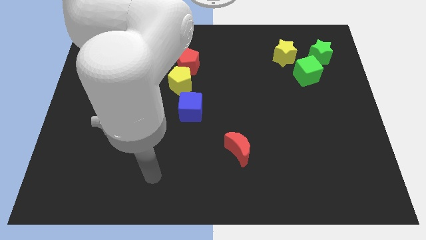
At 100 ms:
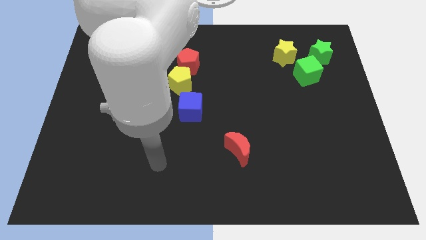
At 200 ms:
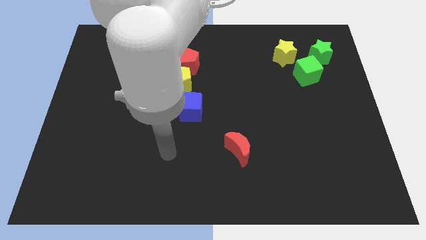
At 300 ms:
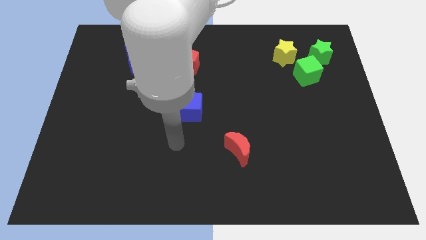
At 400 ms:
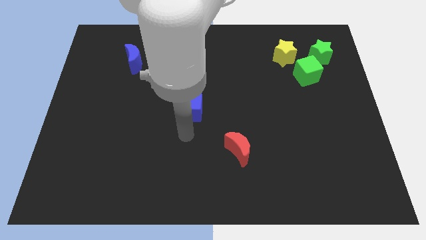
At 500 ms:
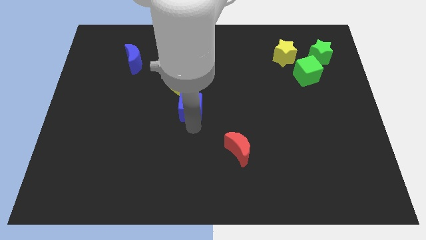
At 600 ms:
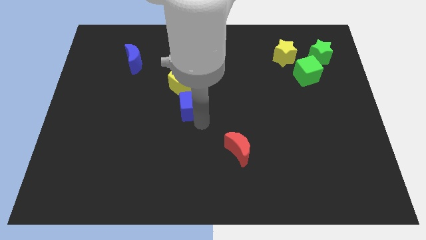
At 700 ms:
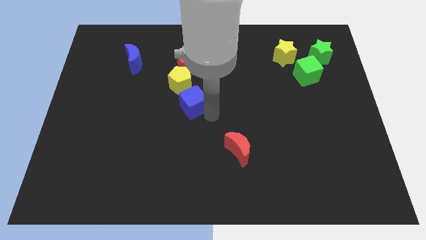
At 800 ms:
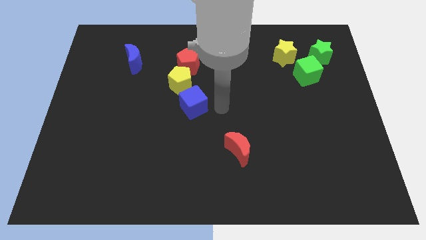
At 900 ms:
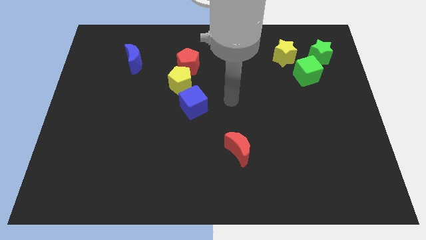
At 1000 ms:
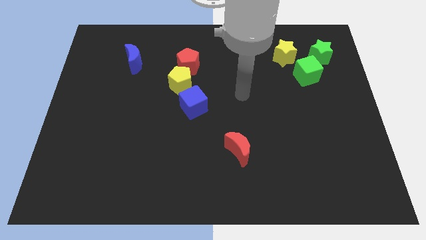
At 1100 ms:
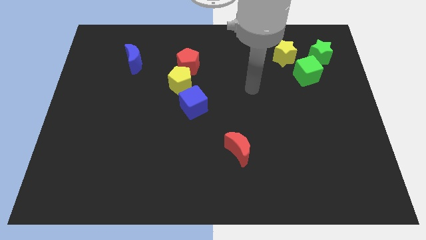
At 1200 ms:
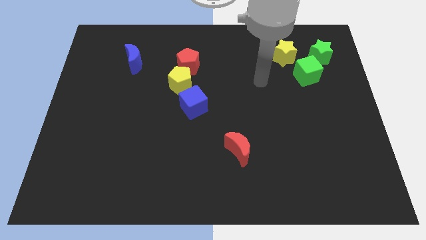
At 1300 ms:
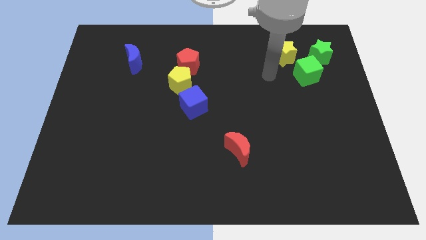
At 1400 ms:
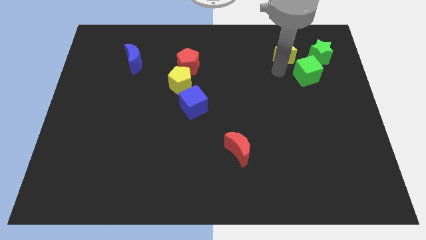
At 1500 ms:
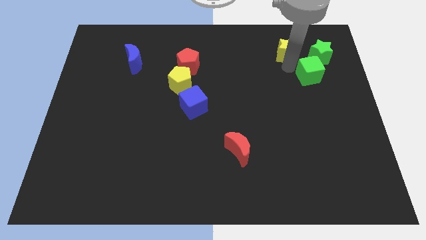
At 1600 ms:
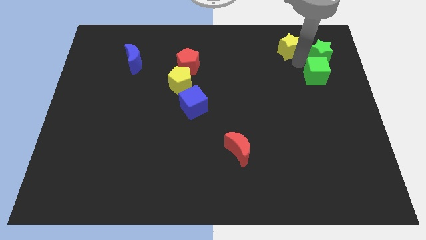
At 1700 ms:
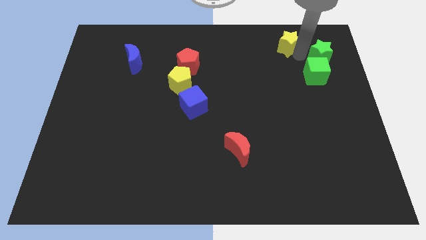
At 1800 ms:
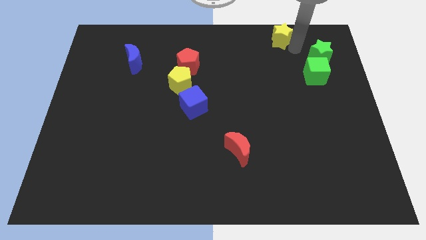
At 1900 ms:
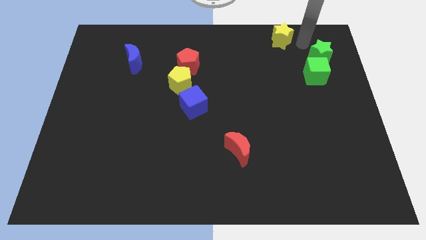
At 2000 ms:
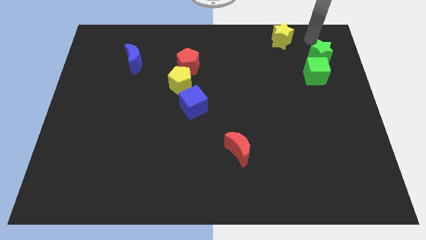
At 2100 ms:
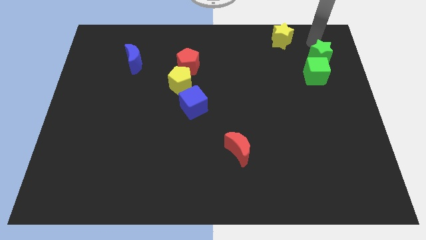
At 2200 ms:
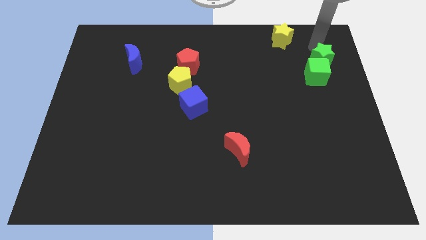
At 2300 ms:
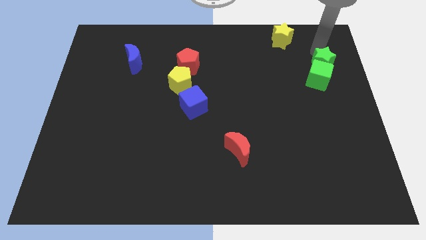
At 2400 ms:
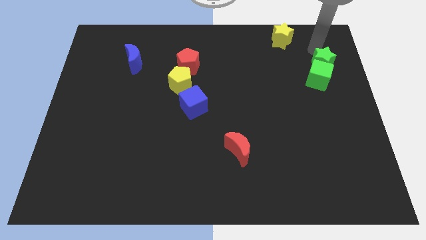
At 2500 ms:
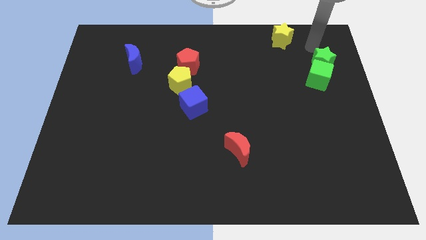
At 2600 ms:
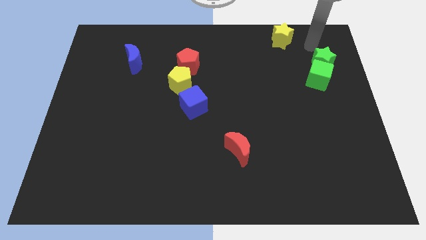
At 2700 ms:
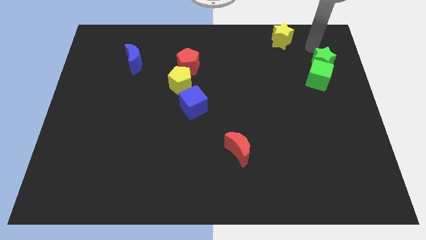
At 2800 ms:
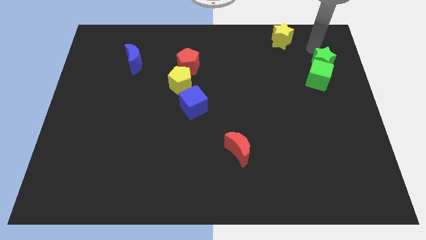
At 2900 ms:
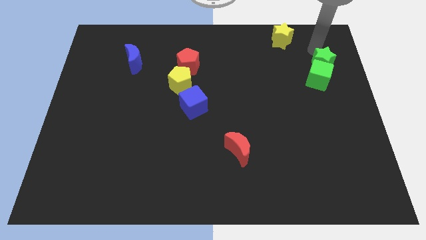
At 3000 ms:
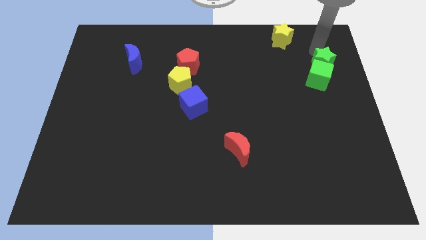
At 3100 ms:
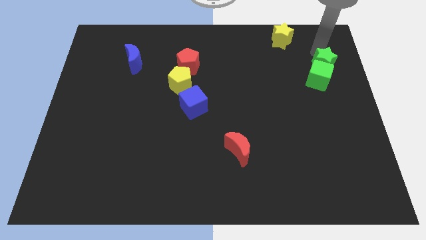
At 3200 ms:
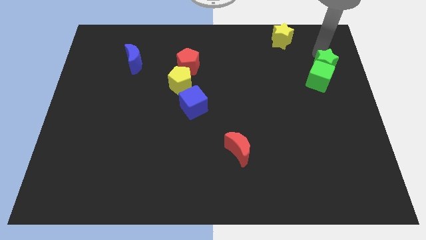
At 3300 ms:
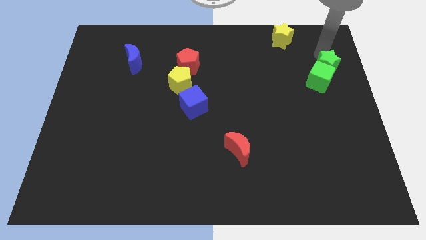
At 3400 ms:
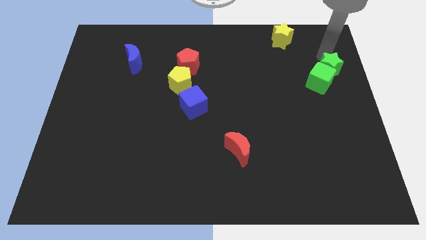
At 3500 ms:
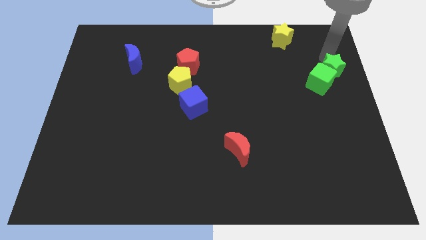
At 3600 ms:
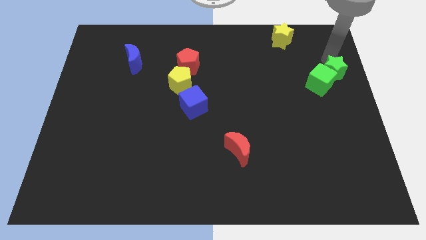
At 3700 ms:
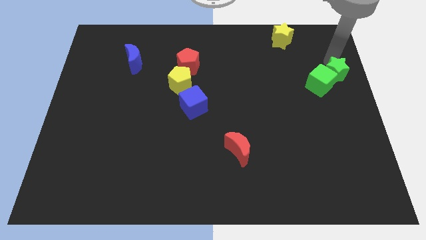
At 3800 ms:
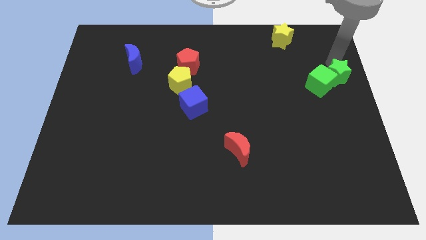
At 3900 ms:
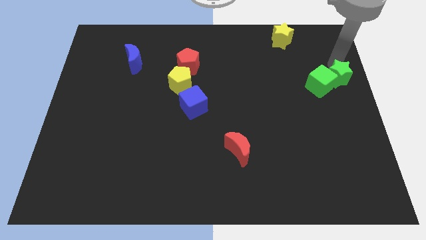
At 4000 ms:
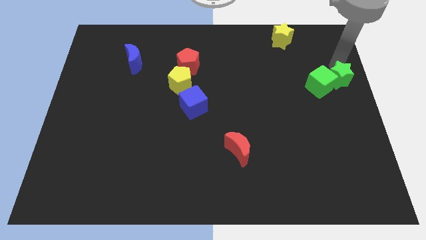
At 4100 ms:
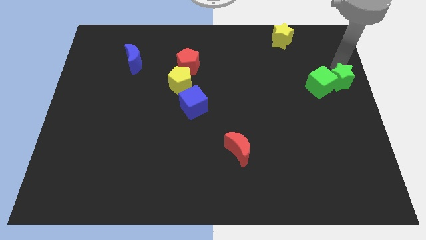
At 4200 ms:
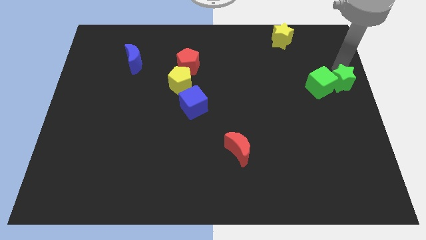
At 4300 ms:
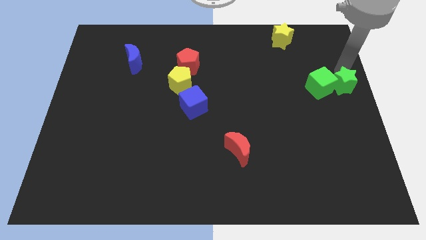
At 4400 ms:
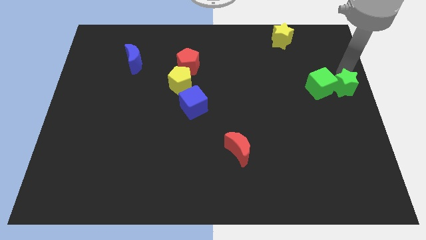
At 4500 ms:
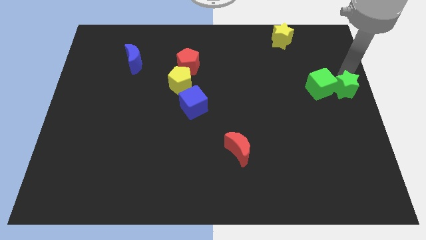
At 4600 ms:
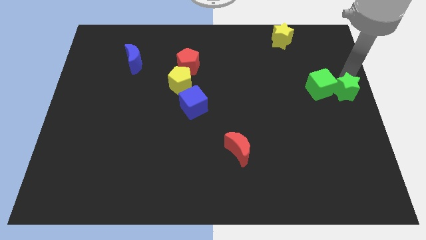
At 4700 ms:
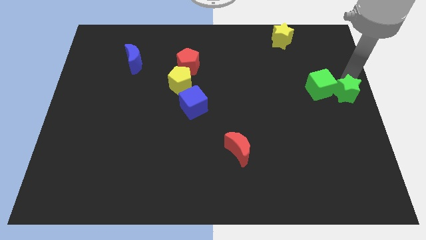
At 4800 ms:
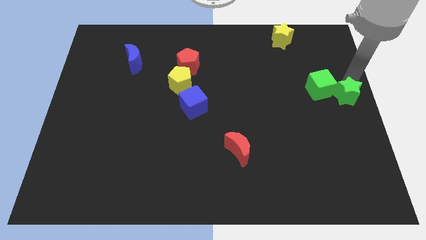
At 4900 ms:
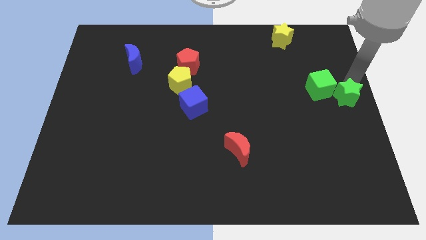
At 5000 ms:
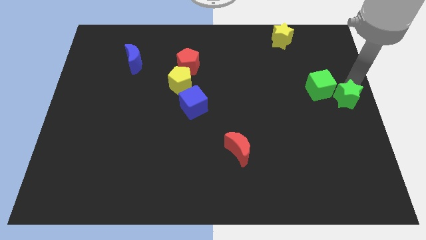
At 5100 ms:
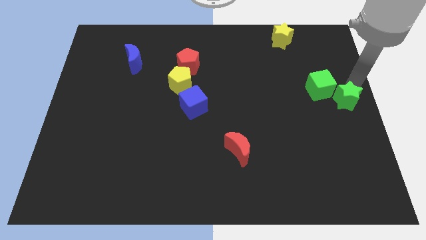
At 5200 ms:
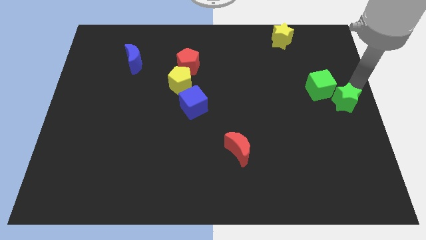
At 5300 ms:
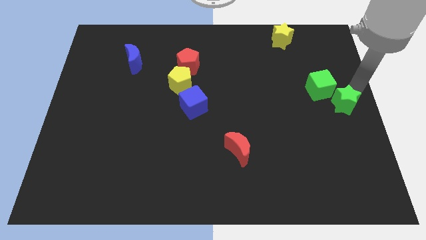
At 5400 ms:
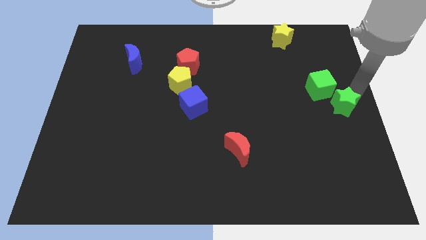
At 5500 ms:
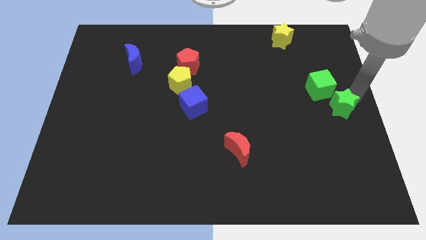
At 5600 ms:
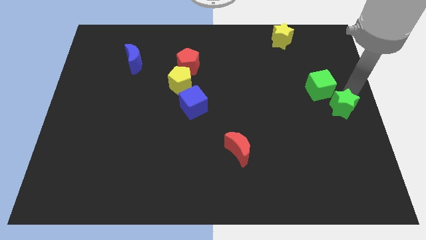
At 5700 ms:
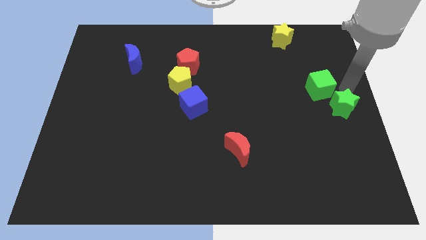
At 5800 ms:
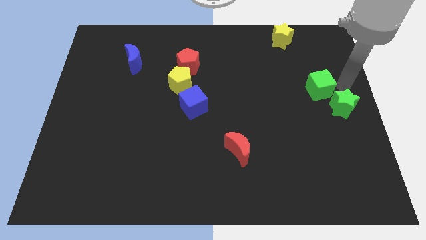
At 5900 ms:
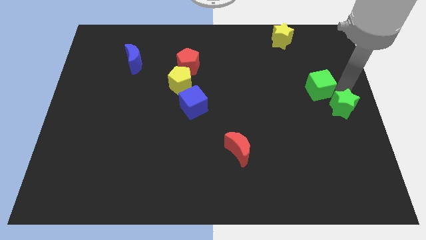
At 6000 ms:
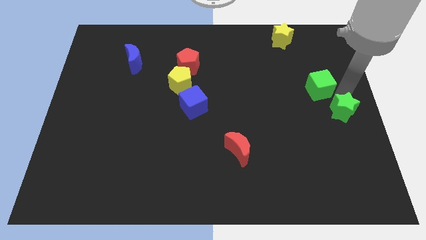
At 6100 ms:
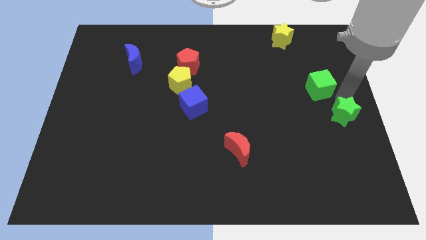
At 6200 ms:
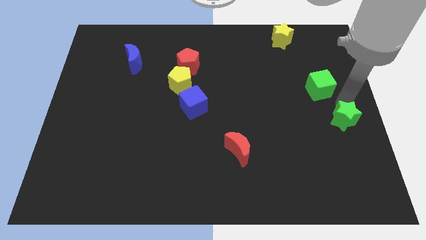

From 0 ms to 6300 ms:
slide the green star downwards

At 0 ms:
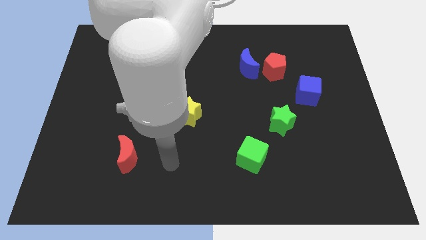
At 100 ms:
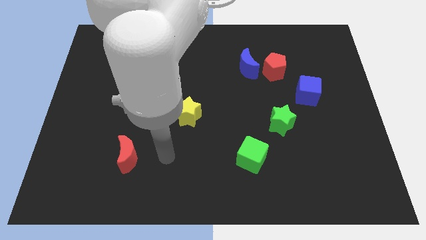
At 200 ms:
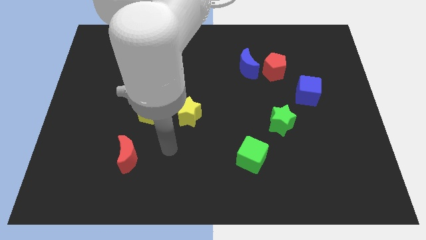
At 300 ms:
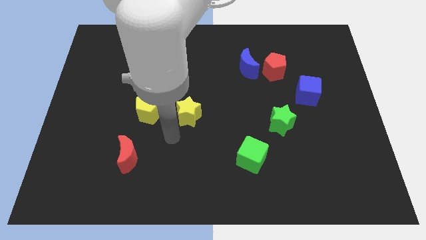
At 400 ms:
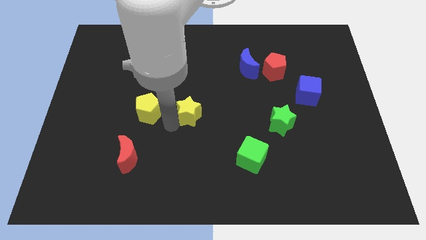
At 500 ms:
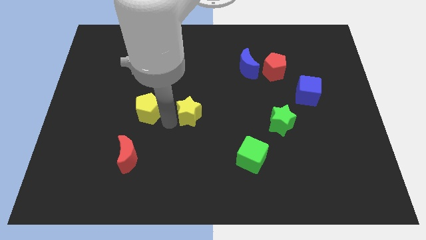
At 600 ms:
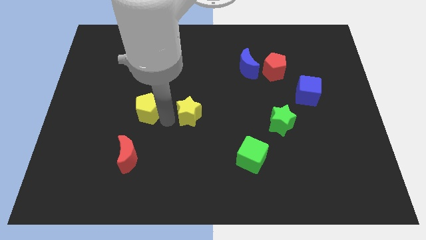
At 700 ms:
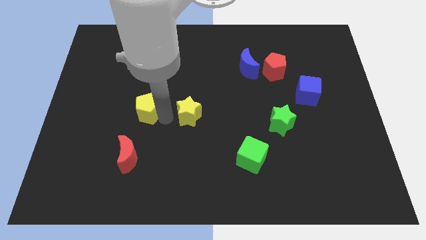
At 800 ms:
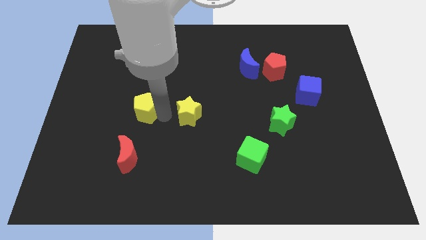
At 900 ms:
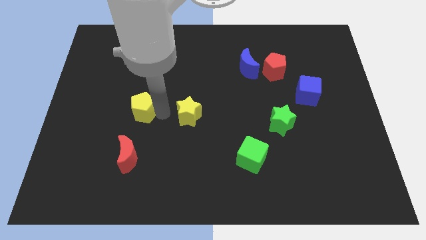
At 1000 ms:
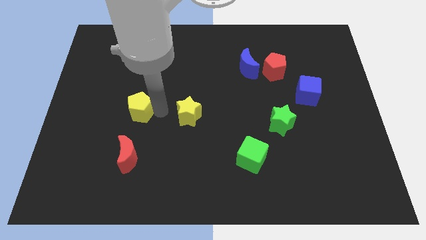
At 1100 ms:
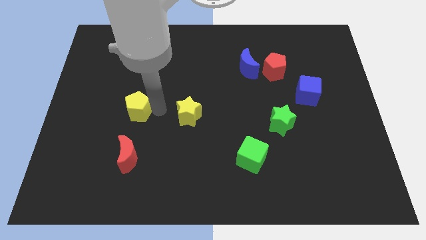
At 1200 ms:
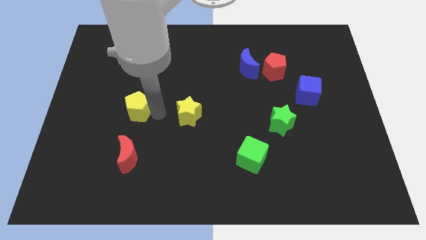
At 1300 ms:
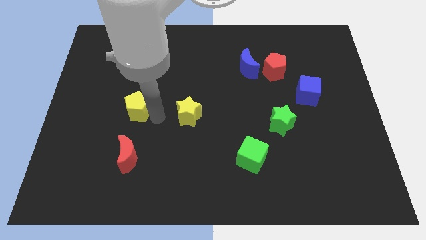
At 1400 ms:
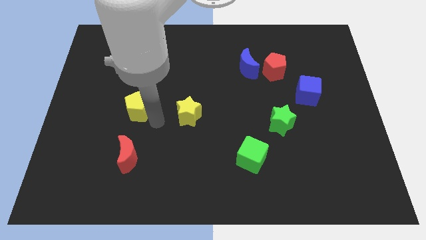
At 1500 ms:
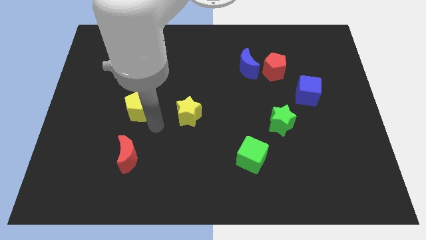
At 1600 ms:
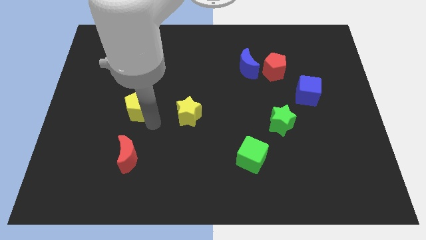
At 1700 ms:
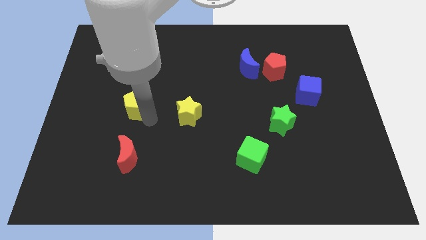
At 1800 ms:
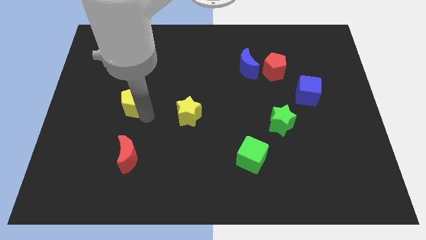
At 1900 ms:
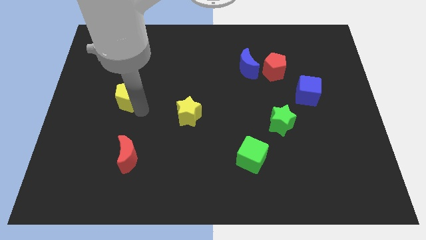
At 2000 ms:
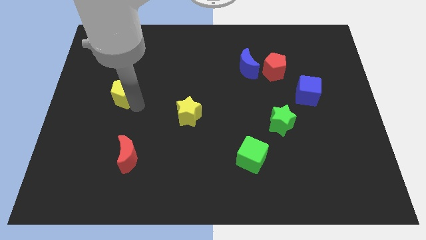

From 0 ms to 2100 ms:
move the yellow pentagon somewhat upwards and to the left

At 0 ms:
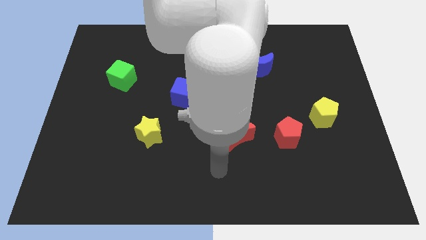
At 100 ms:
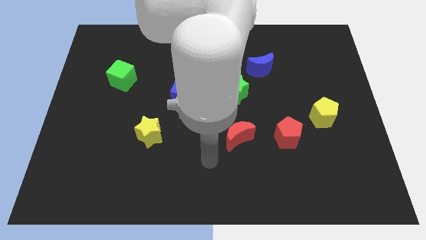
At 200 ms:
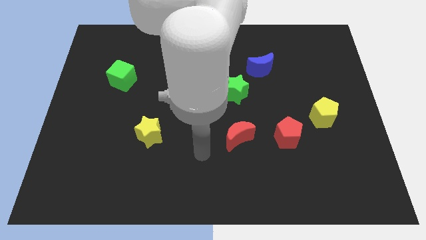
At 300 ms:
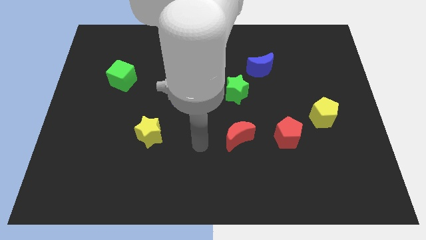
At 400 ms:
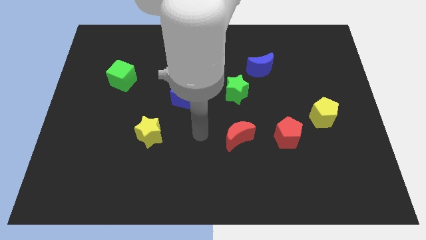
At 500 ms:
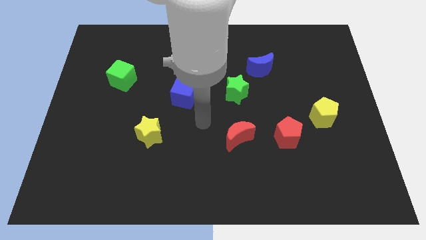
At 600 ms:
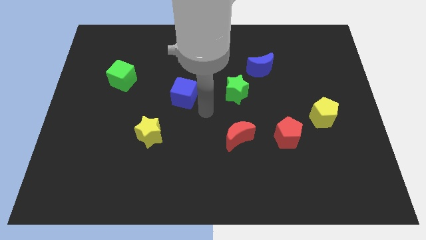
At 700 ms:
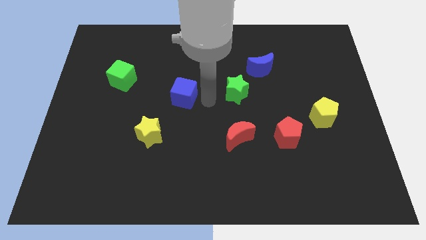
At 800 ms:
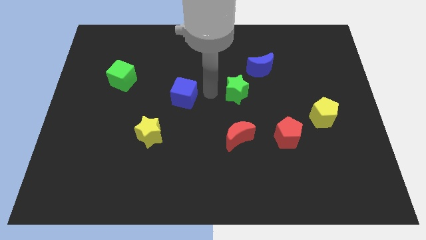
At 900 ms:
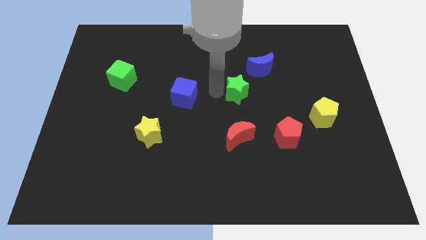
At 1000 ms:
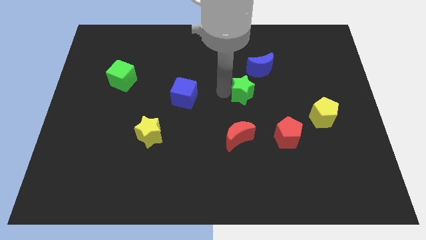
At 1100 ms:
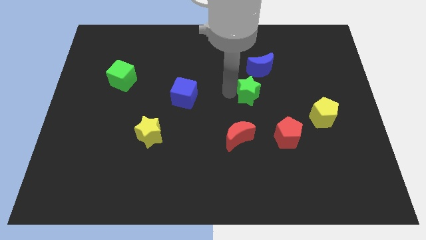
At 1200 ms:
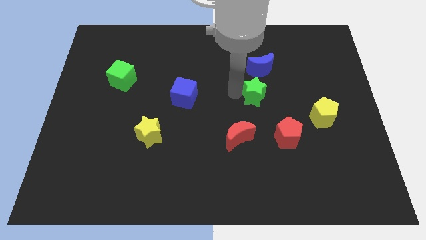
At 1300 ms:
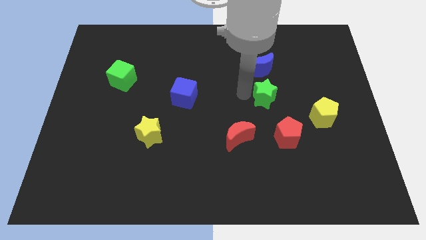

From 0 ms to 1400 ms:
move the green star right a little bit
